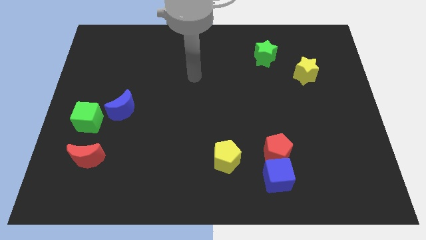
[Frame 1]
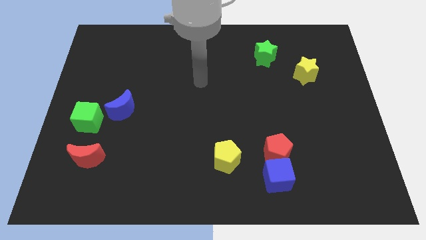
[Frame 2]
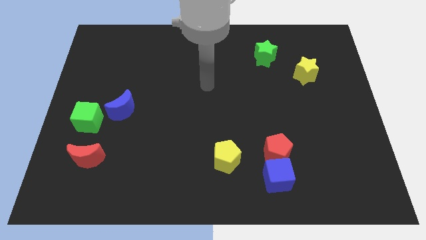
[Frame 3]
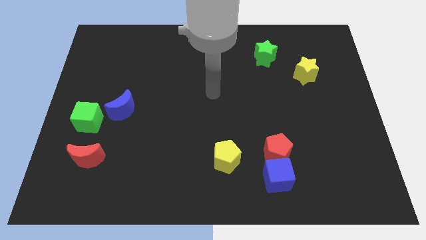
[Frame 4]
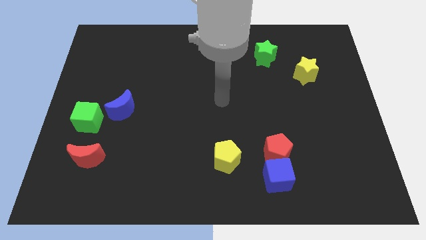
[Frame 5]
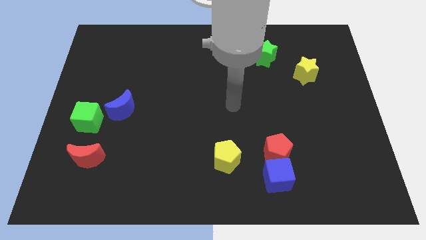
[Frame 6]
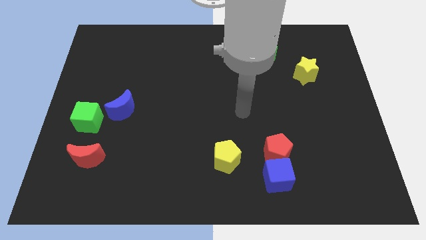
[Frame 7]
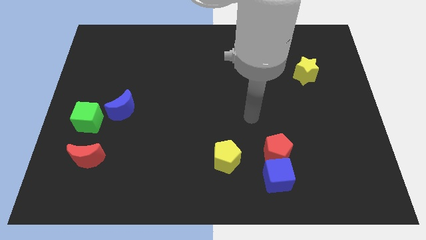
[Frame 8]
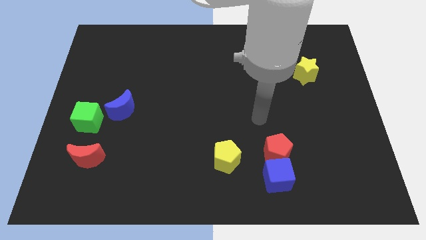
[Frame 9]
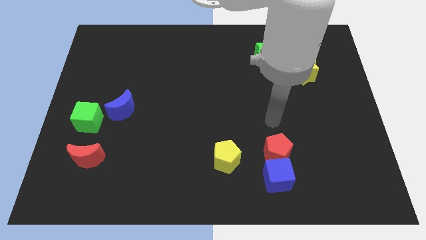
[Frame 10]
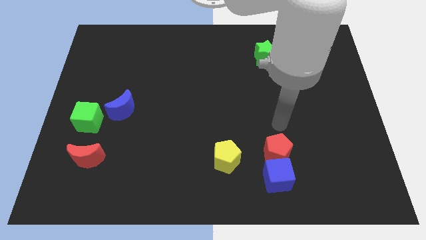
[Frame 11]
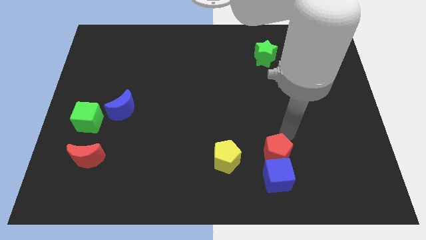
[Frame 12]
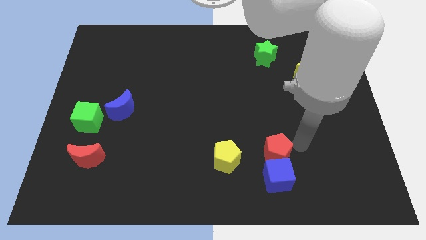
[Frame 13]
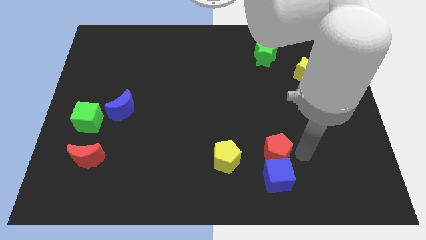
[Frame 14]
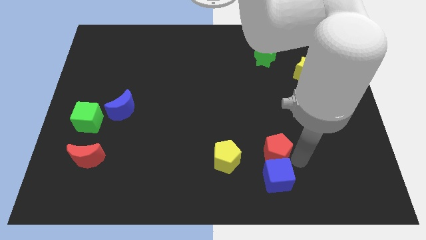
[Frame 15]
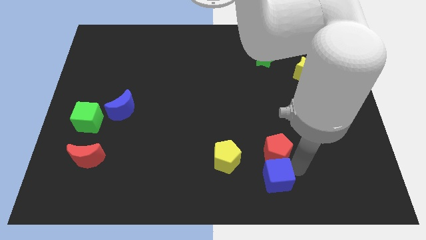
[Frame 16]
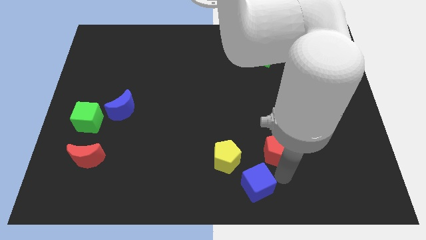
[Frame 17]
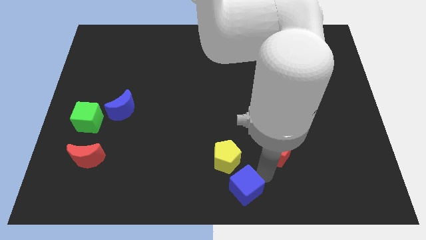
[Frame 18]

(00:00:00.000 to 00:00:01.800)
separate the red pentagon from the blue cube

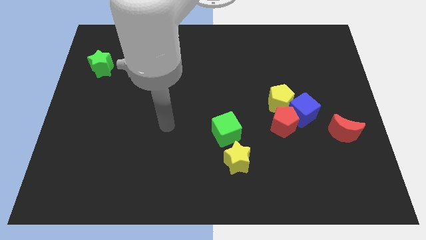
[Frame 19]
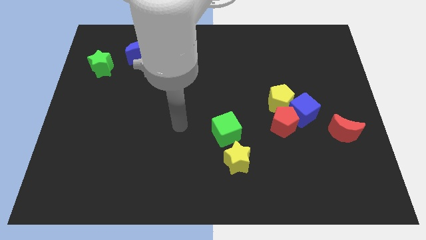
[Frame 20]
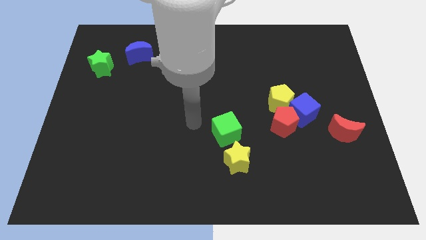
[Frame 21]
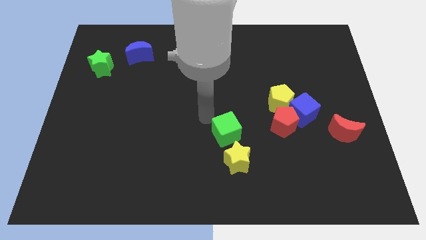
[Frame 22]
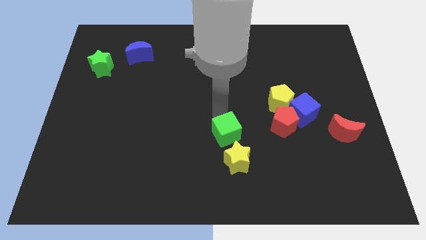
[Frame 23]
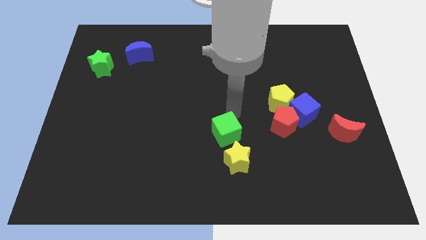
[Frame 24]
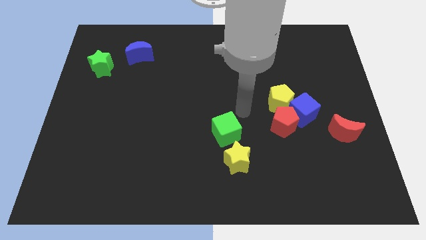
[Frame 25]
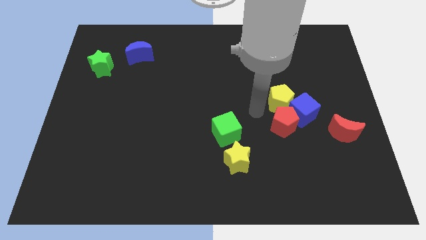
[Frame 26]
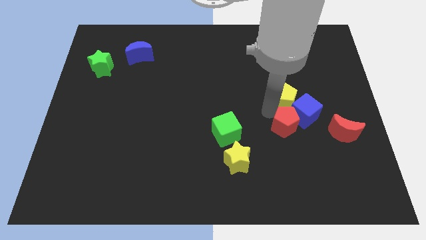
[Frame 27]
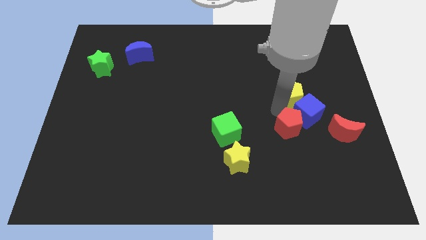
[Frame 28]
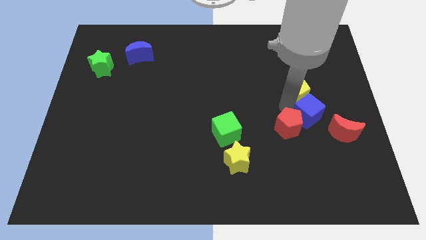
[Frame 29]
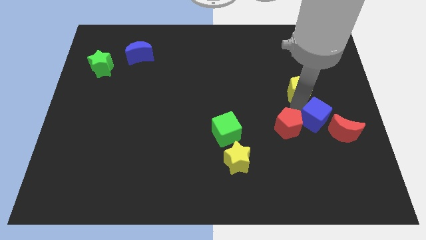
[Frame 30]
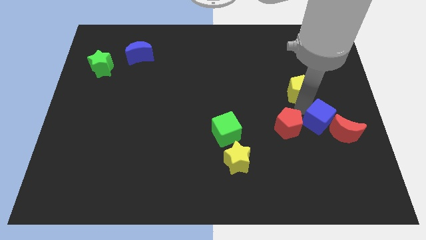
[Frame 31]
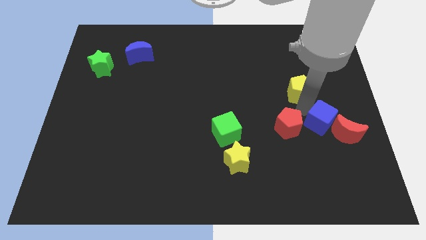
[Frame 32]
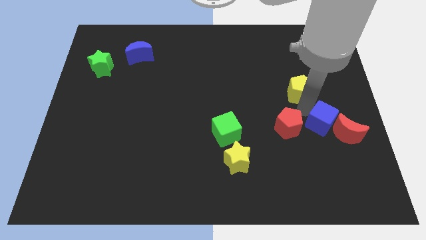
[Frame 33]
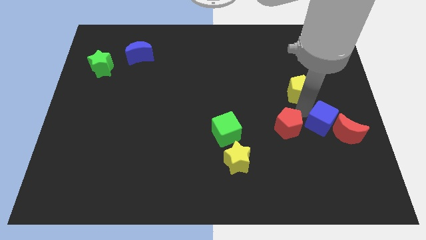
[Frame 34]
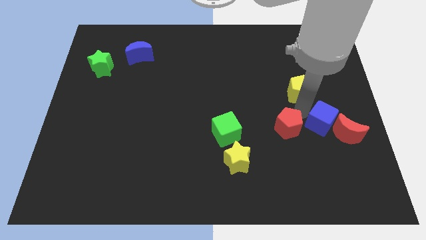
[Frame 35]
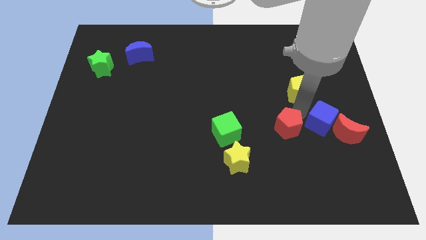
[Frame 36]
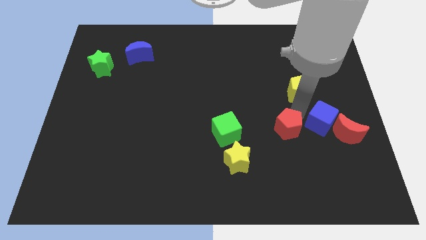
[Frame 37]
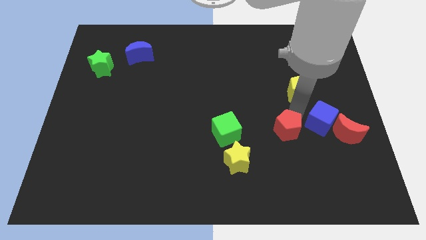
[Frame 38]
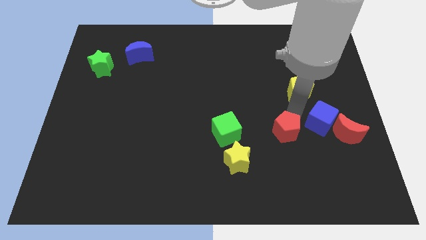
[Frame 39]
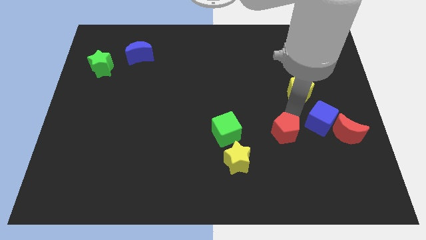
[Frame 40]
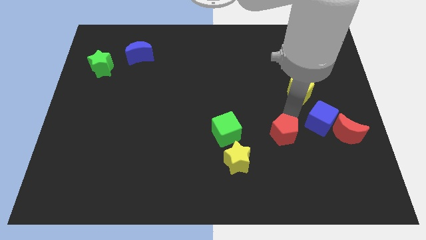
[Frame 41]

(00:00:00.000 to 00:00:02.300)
separate the red pentagon from the blue cube and yellow pentagon

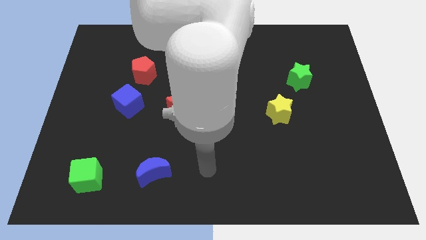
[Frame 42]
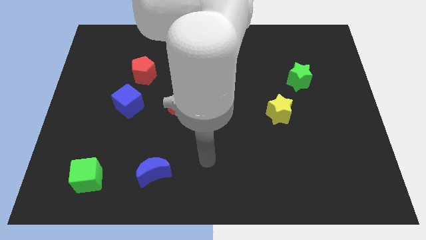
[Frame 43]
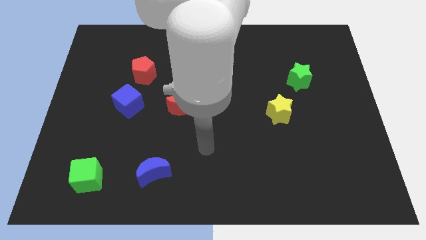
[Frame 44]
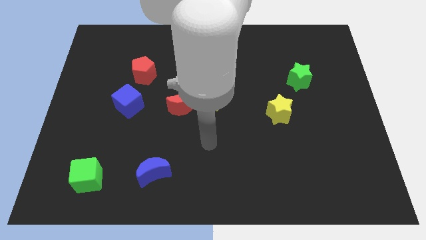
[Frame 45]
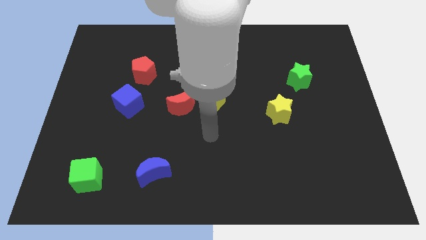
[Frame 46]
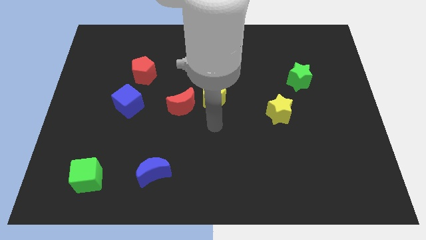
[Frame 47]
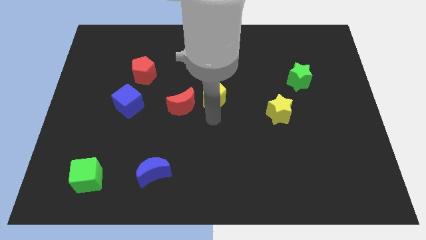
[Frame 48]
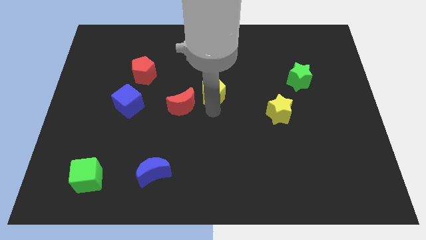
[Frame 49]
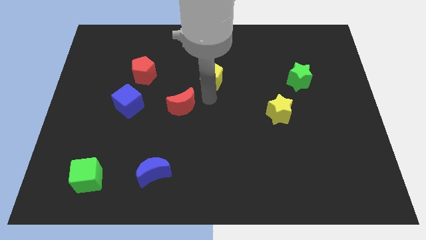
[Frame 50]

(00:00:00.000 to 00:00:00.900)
move the red moon away from the yellow pentagon

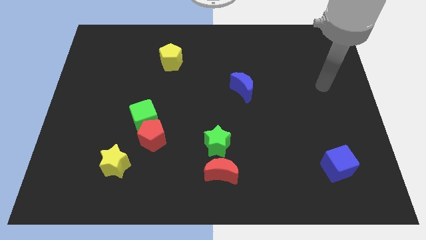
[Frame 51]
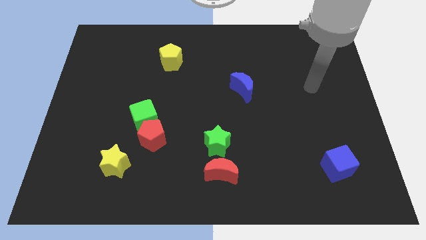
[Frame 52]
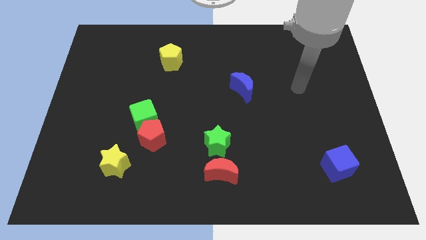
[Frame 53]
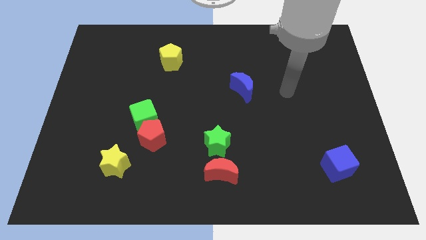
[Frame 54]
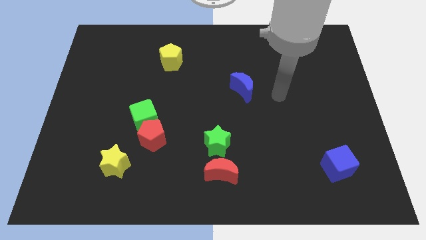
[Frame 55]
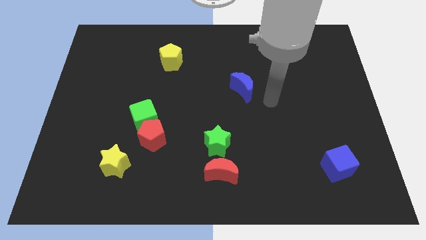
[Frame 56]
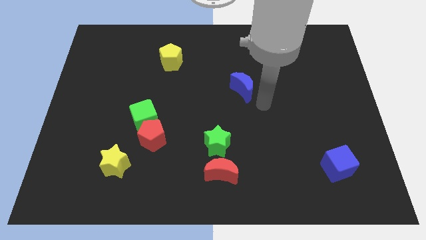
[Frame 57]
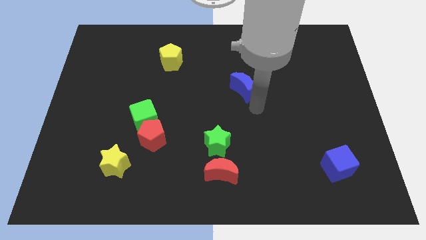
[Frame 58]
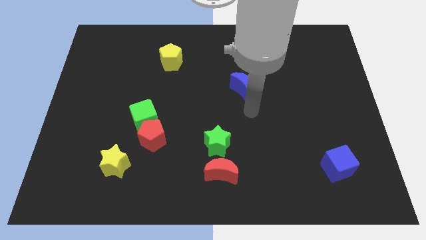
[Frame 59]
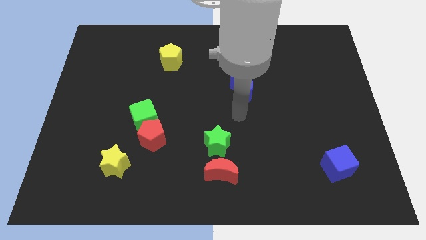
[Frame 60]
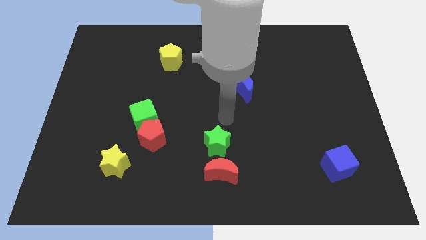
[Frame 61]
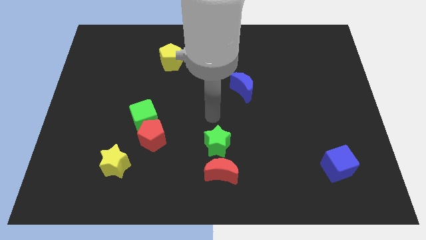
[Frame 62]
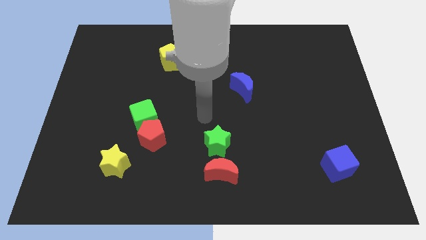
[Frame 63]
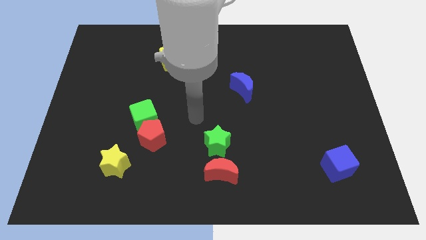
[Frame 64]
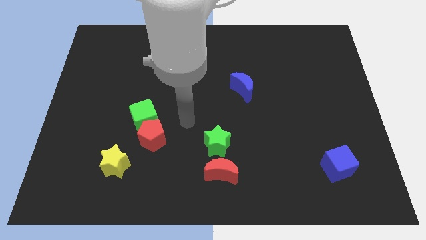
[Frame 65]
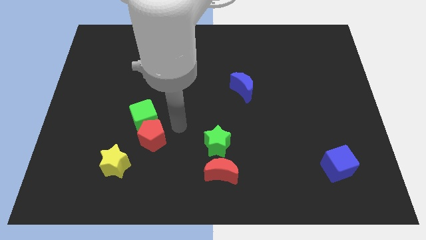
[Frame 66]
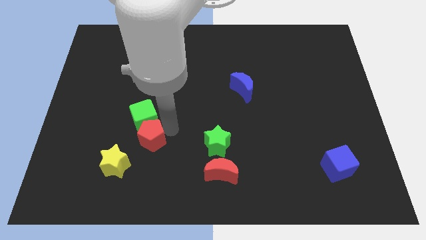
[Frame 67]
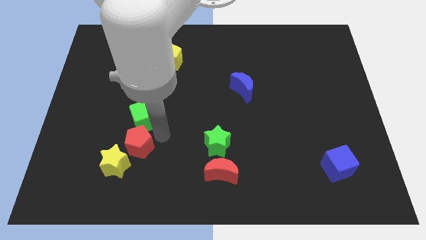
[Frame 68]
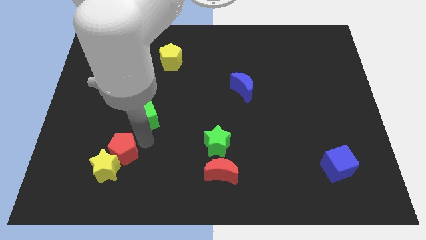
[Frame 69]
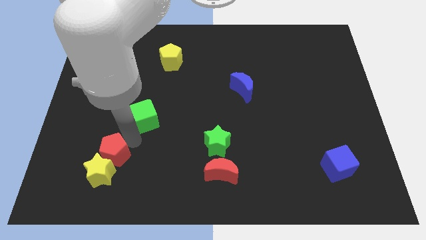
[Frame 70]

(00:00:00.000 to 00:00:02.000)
move the green cube away from the red pentagon

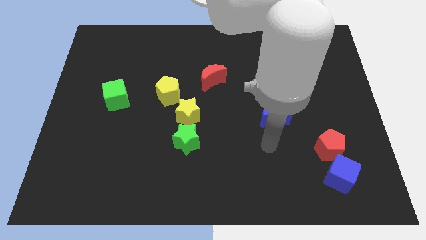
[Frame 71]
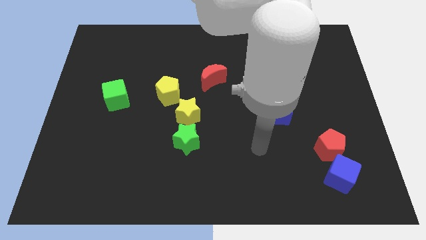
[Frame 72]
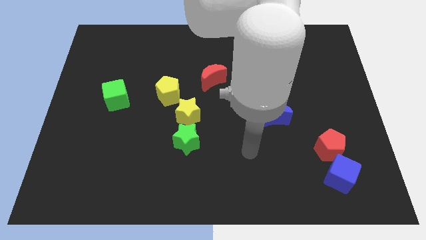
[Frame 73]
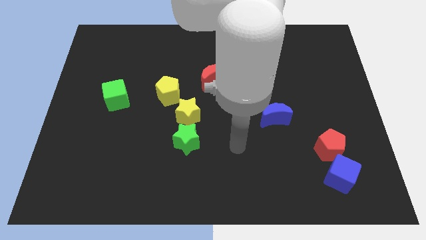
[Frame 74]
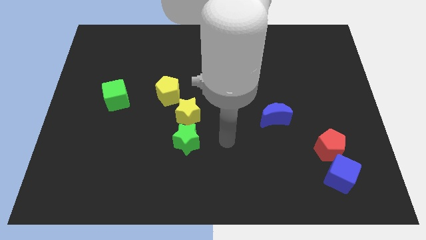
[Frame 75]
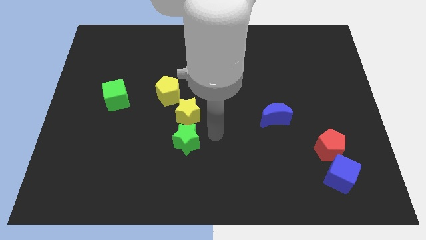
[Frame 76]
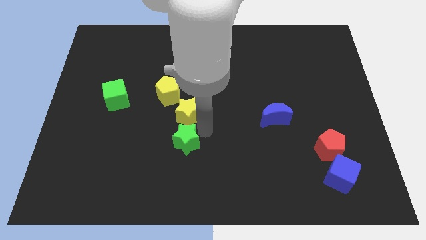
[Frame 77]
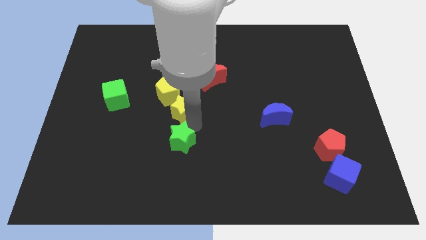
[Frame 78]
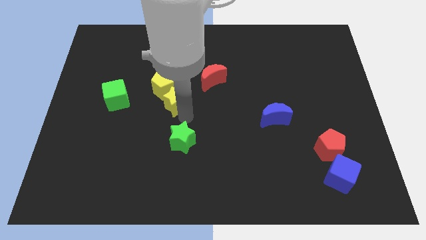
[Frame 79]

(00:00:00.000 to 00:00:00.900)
separate the green star from the yellow star

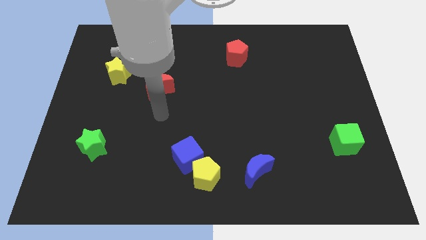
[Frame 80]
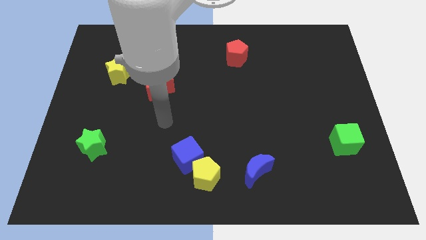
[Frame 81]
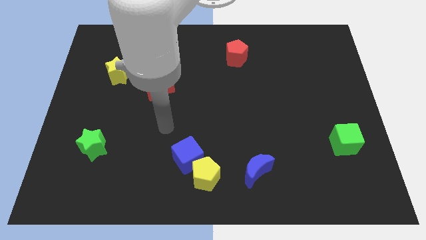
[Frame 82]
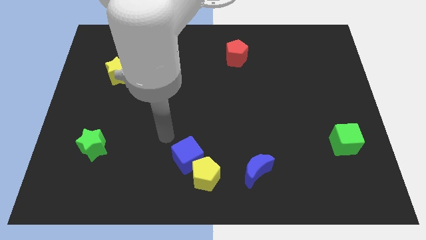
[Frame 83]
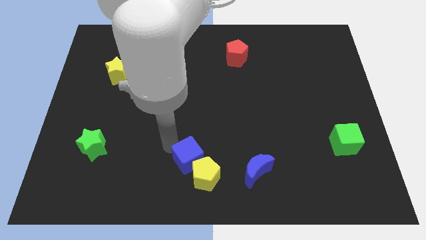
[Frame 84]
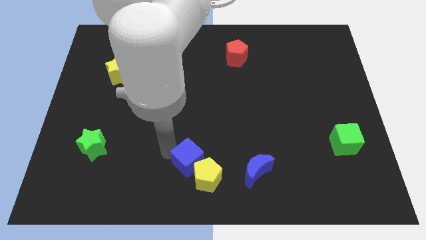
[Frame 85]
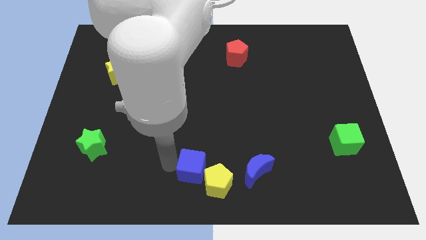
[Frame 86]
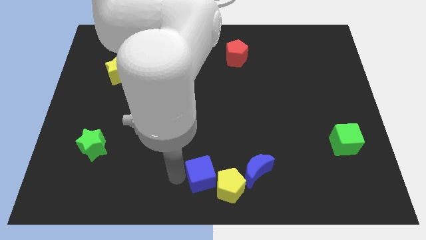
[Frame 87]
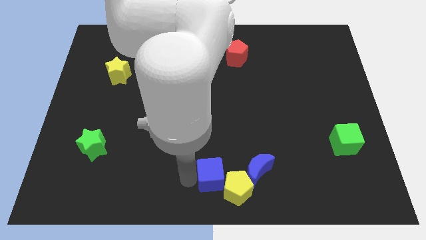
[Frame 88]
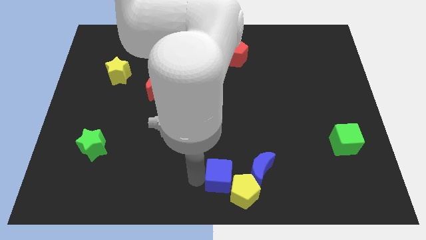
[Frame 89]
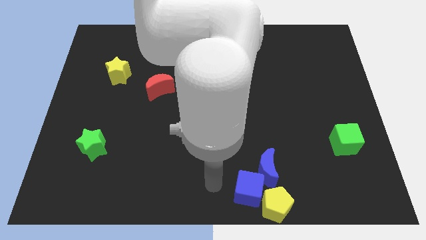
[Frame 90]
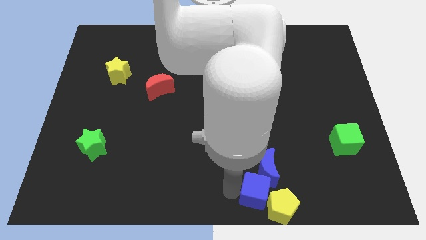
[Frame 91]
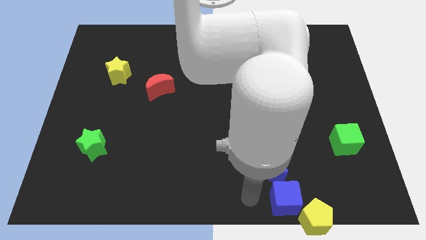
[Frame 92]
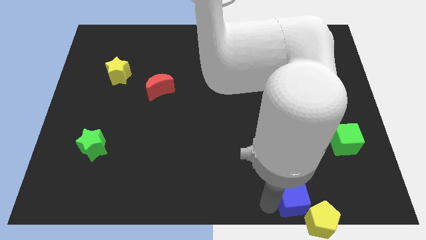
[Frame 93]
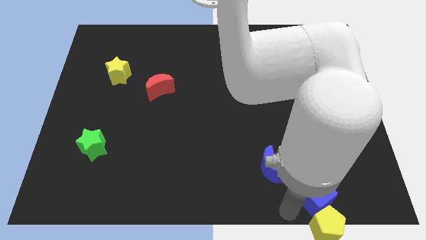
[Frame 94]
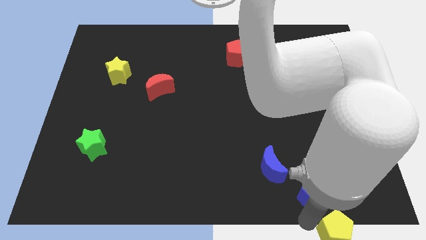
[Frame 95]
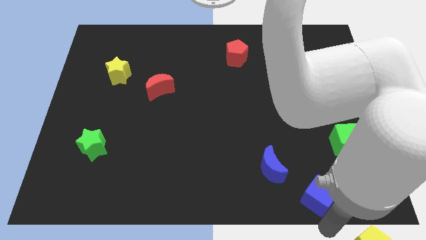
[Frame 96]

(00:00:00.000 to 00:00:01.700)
pull the blue cube apart from the yellow pentagon
